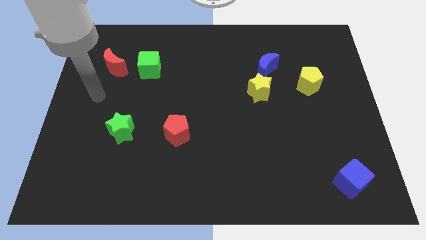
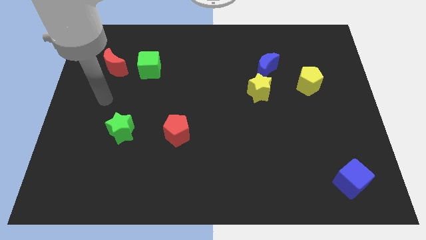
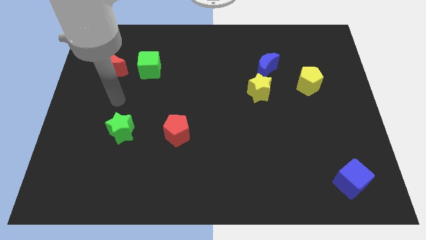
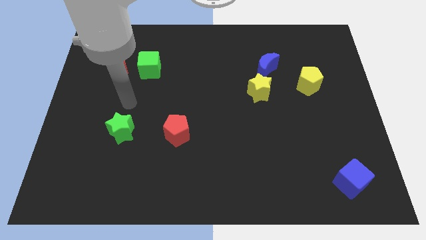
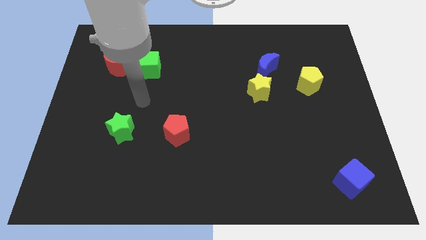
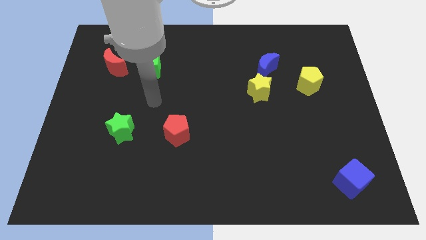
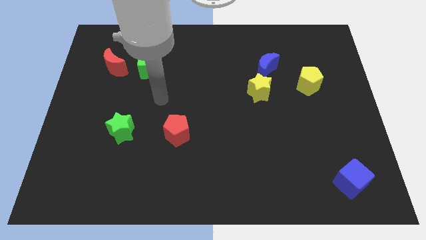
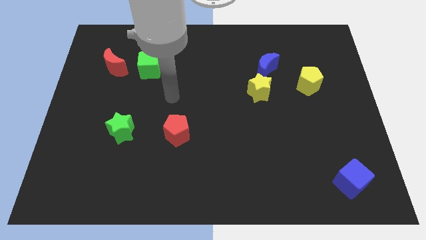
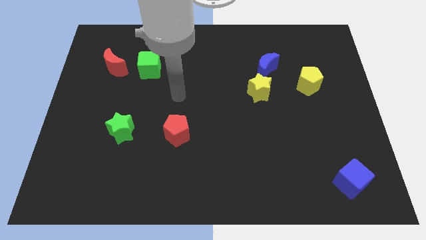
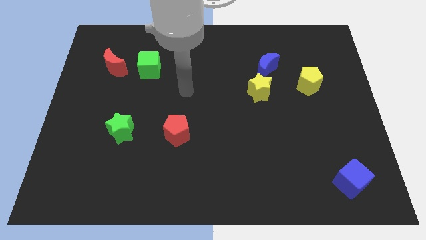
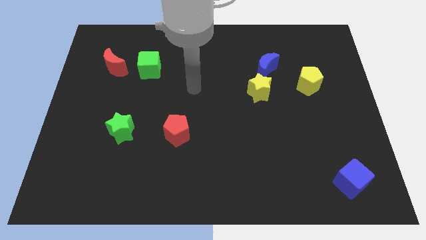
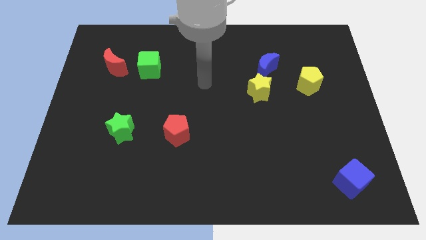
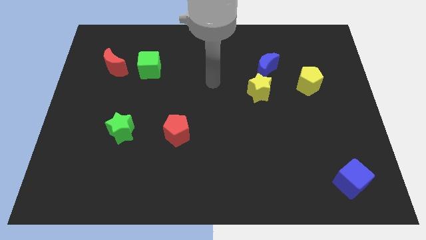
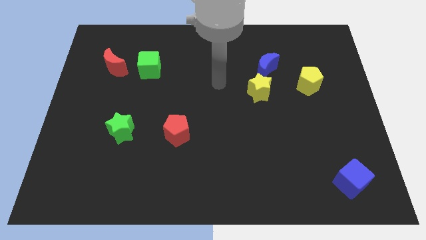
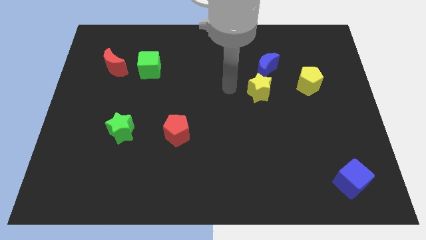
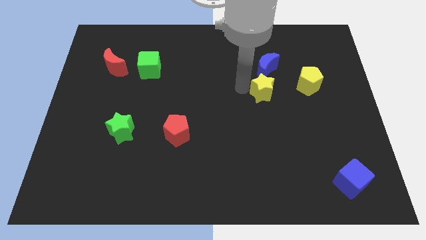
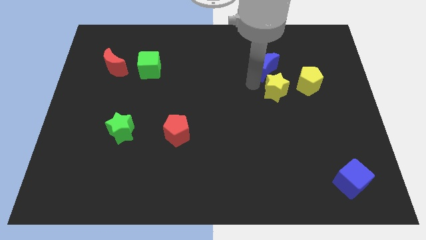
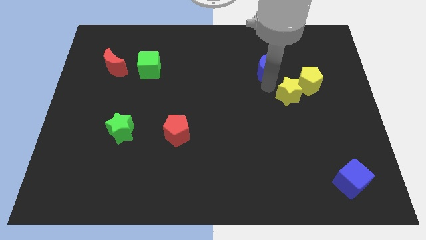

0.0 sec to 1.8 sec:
separate the blue moon from the yellow star

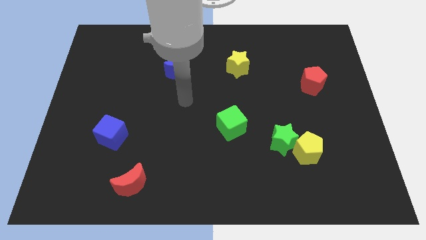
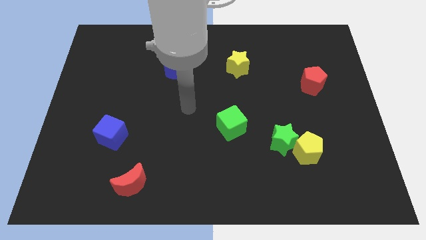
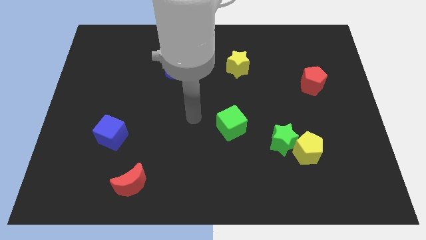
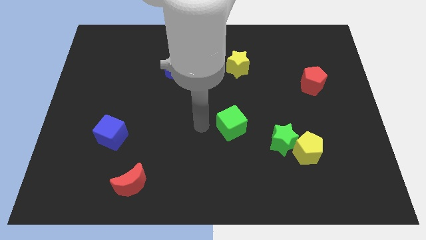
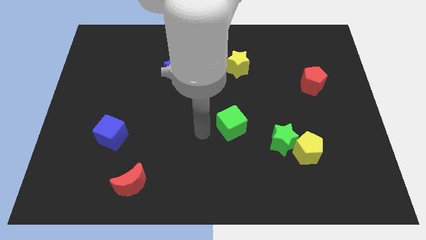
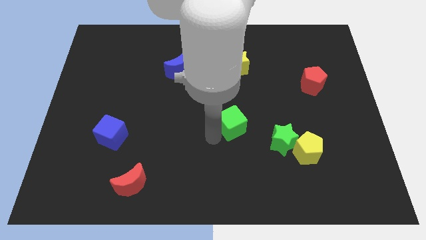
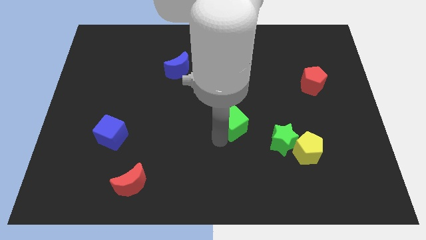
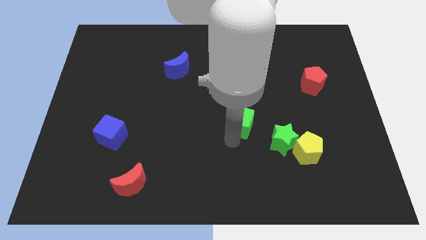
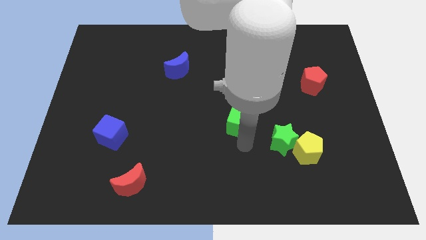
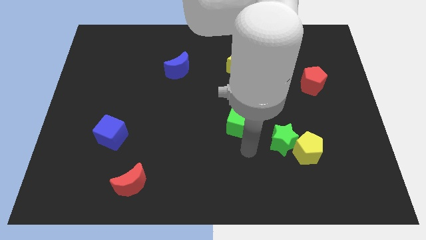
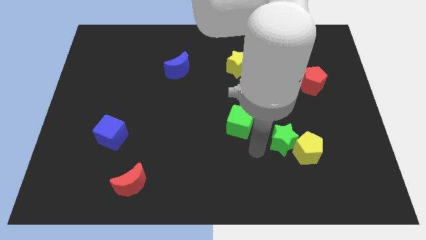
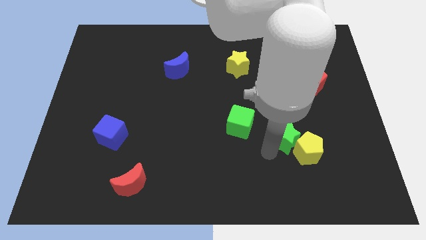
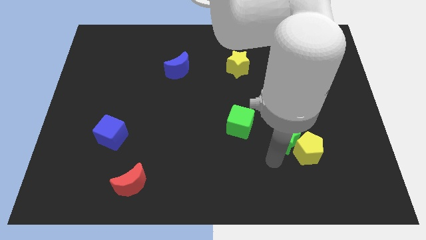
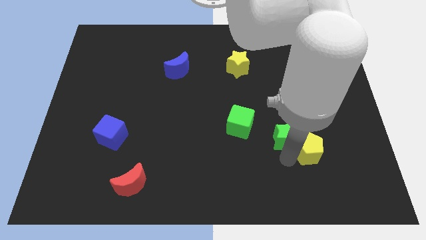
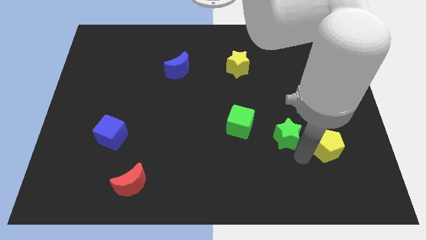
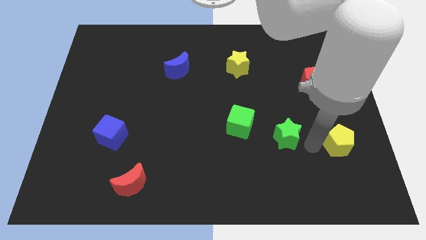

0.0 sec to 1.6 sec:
pull the green star apart from the yellow pentagon

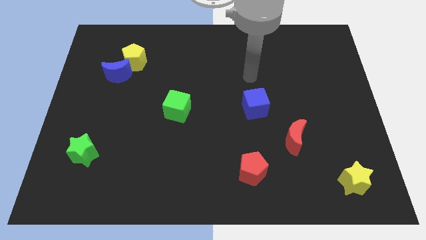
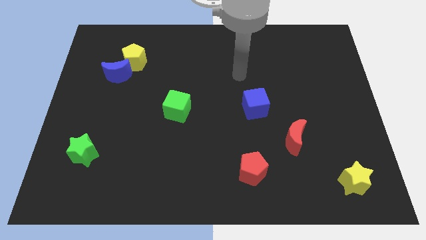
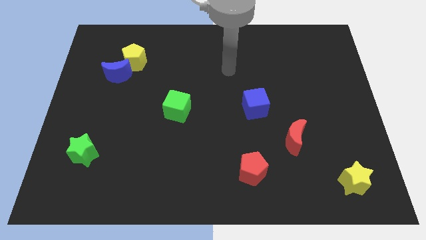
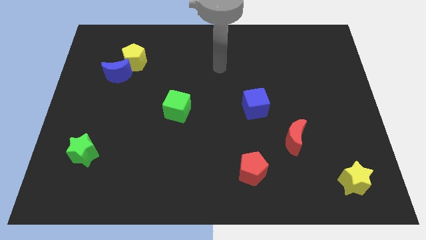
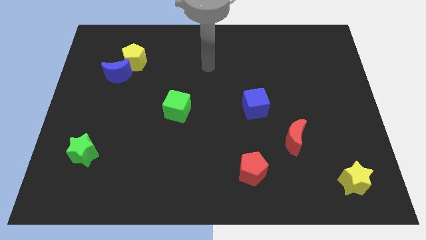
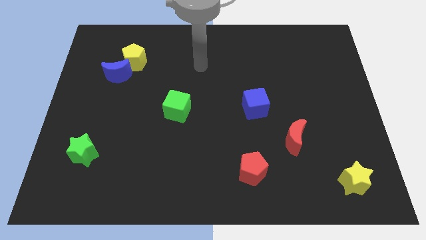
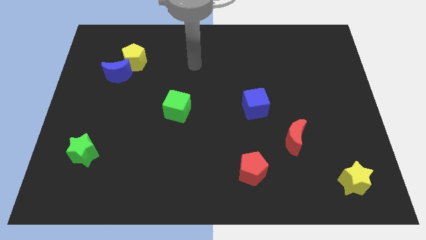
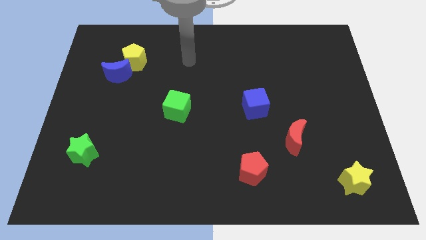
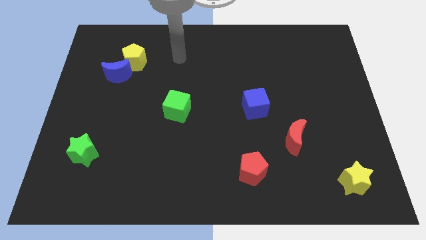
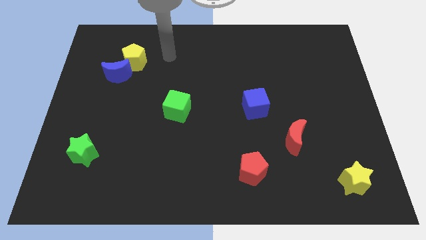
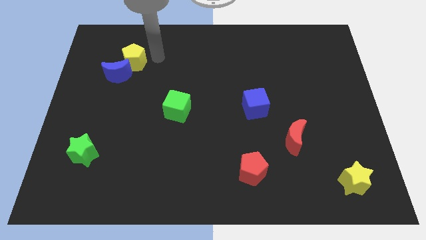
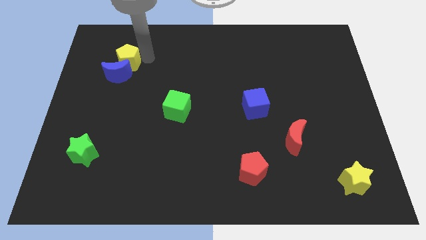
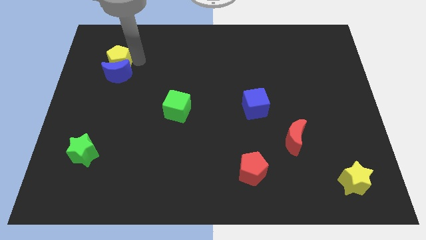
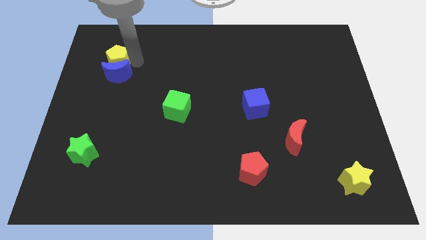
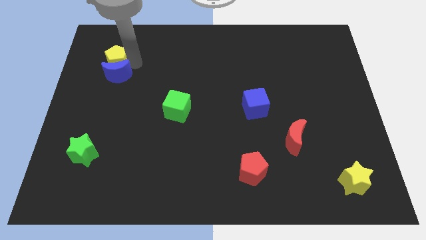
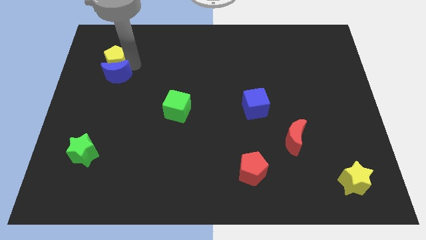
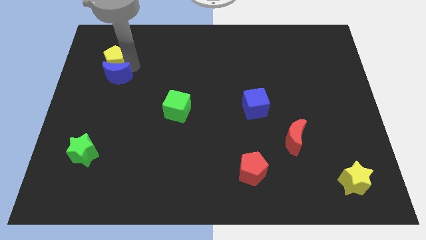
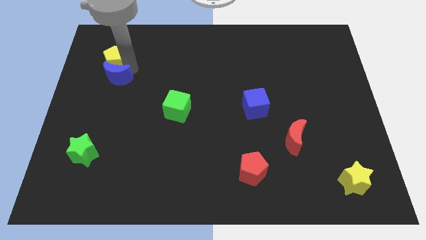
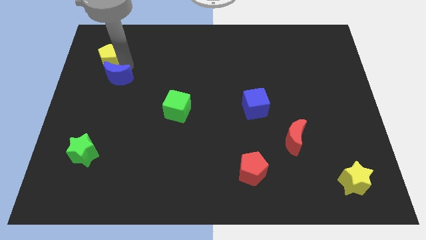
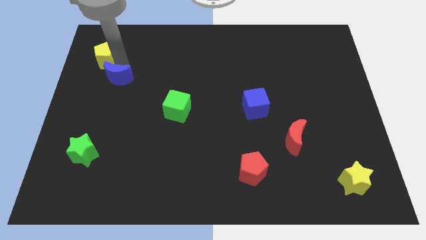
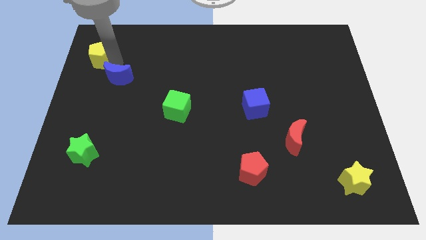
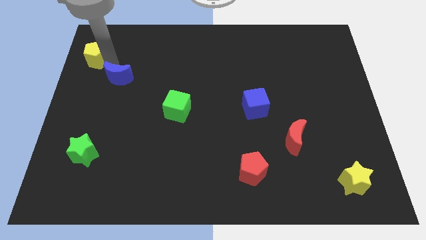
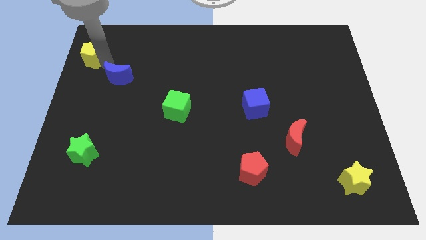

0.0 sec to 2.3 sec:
move the blue moon away from the yellow pentagon

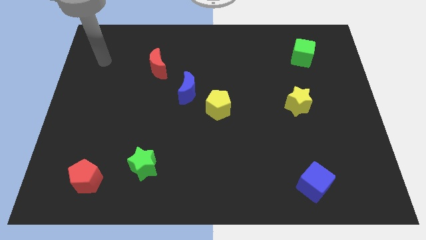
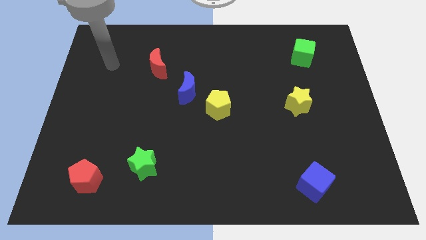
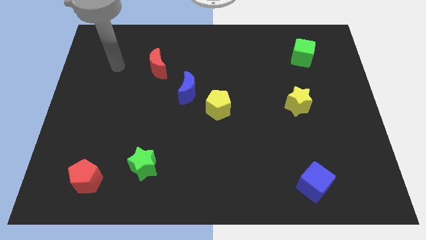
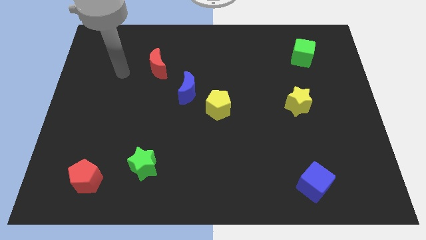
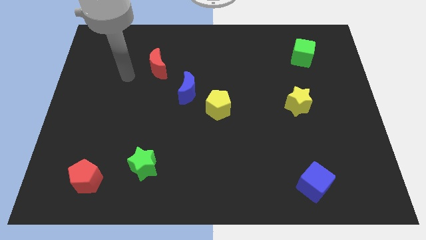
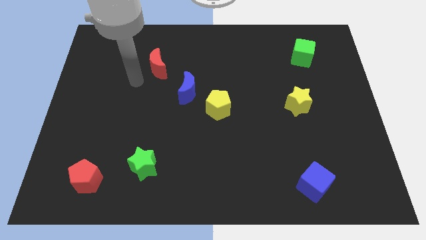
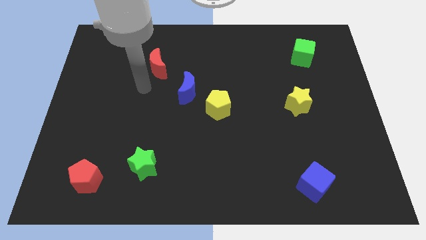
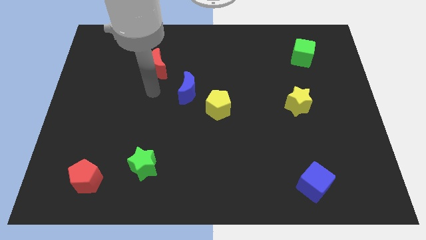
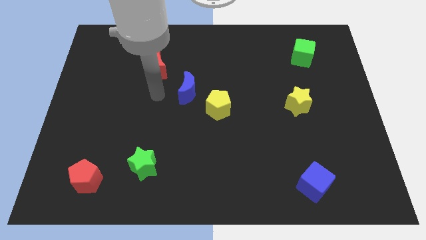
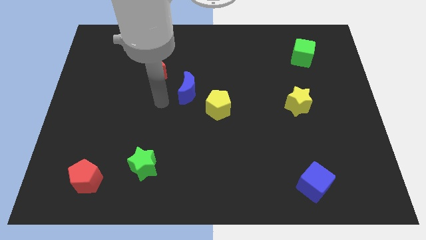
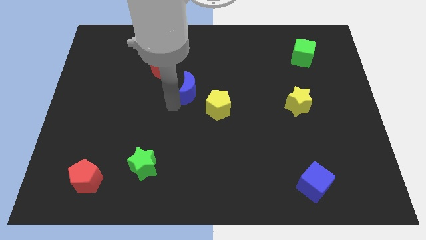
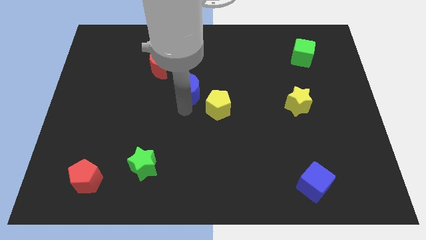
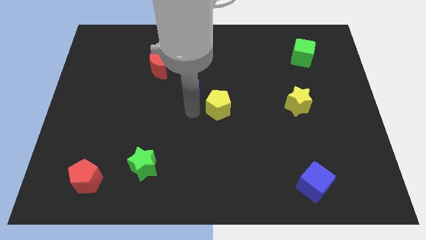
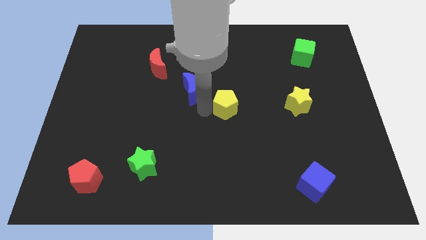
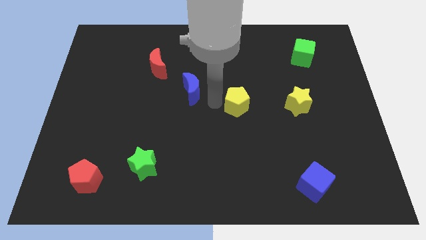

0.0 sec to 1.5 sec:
pull the blue moon apart from the yellow pentagon

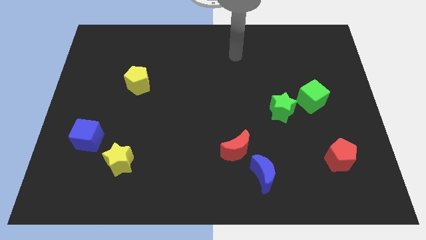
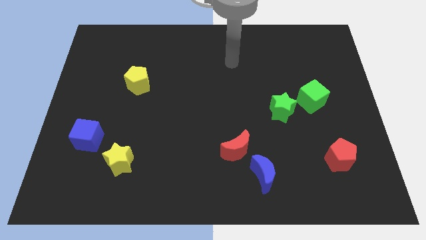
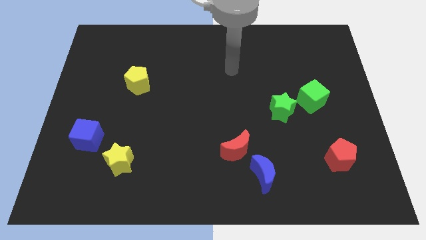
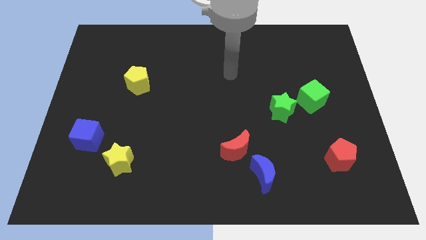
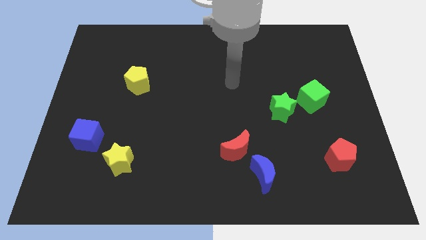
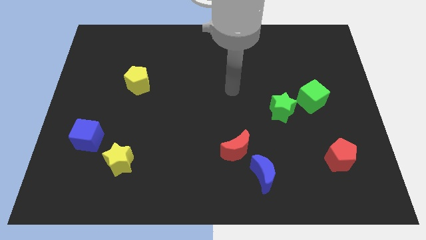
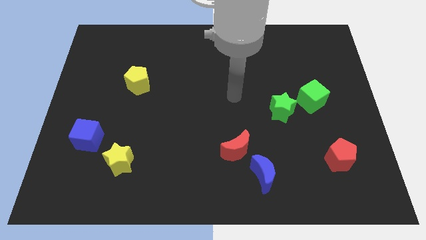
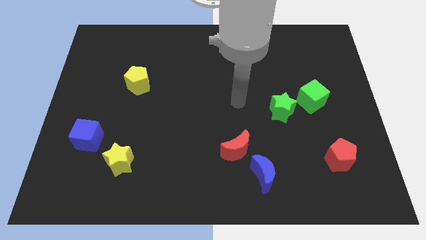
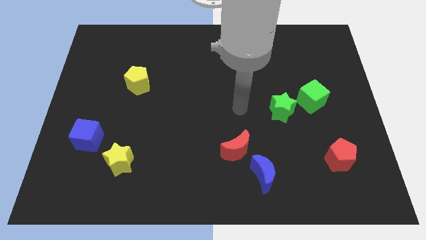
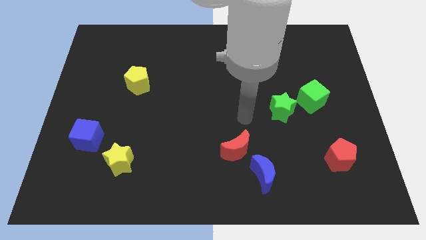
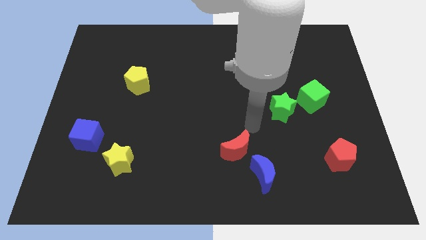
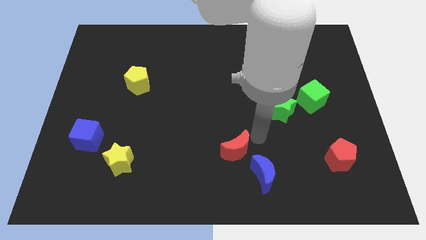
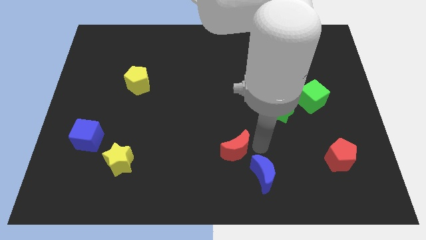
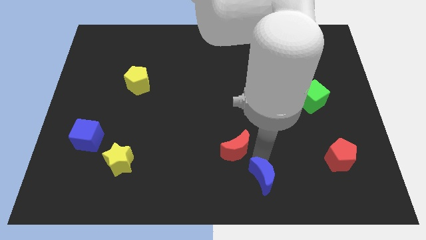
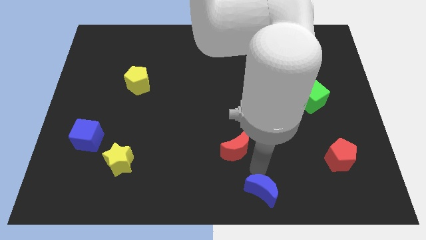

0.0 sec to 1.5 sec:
pull the red moon apart from the blue moon

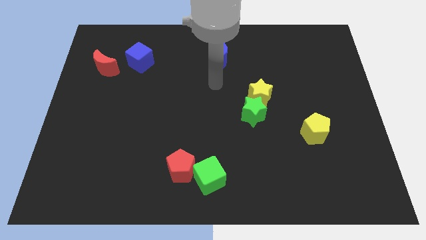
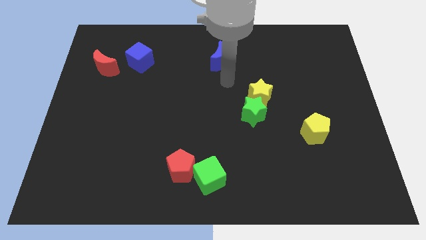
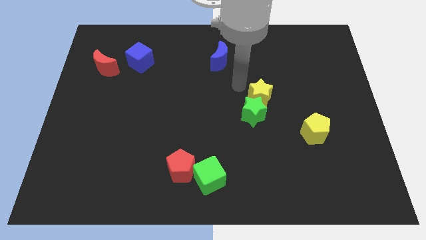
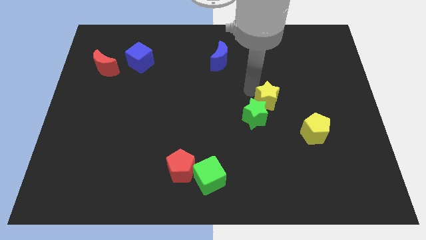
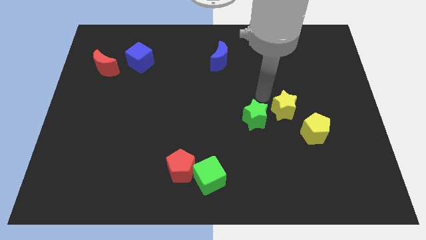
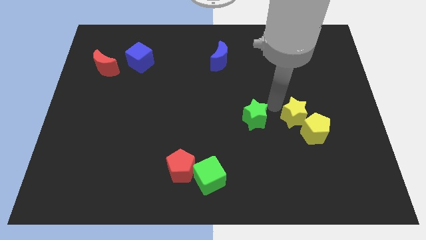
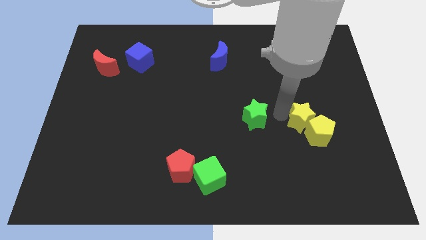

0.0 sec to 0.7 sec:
separate the green star from the yellow star
